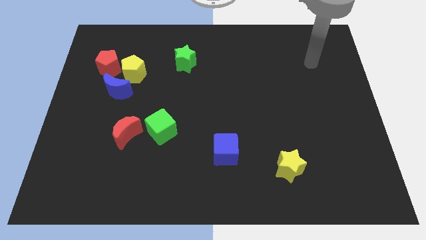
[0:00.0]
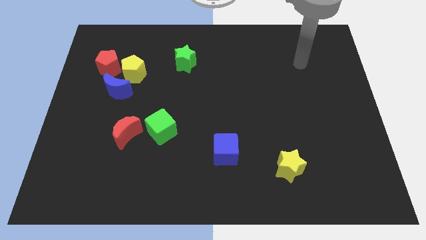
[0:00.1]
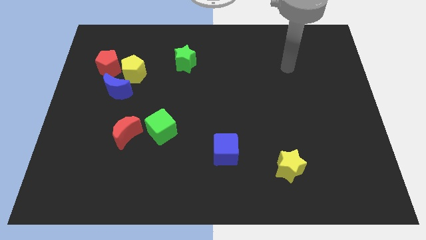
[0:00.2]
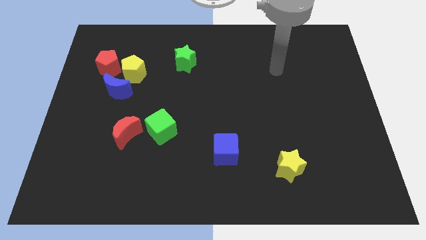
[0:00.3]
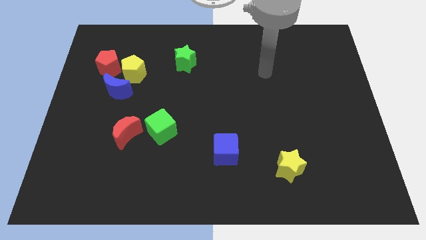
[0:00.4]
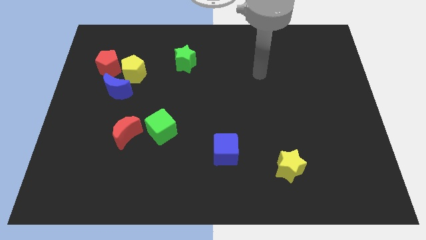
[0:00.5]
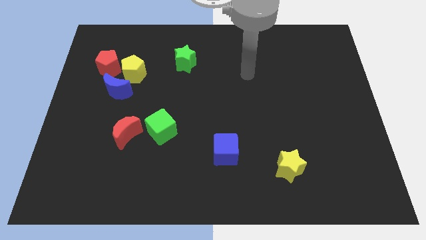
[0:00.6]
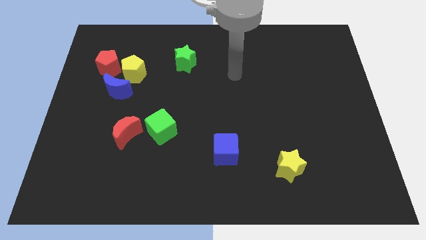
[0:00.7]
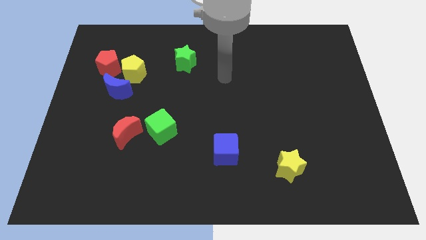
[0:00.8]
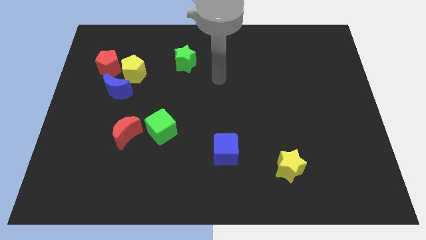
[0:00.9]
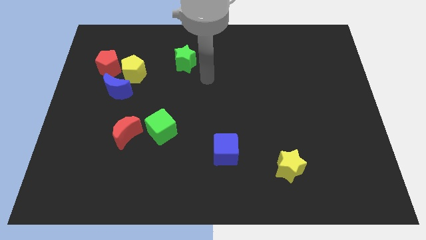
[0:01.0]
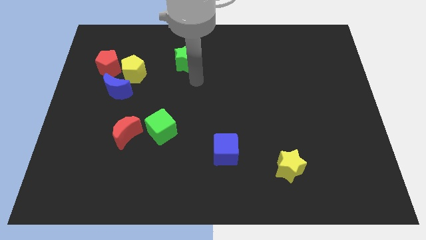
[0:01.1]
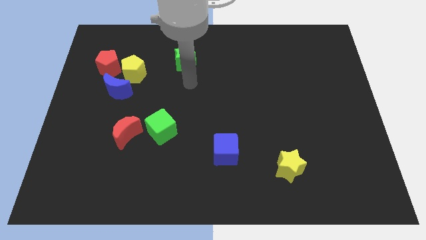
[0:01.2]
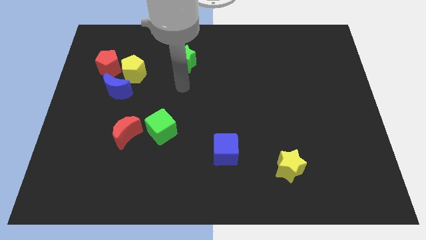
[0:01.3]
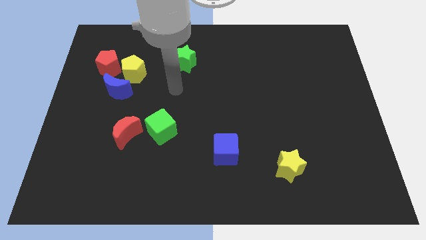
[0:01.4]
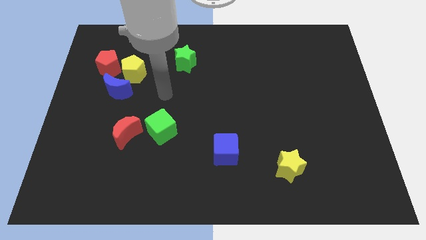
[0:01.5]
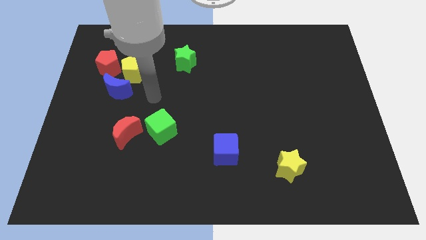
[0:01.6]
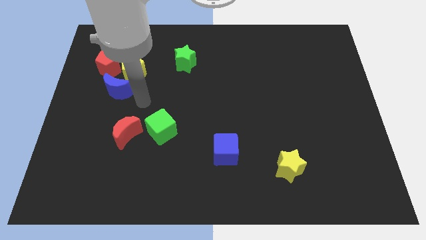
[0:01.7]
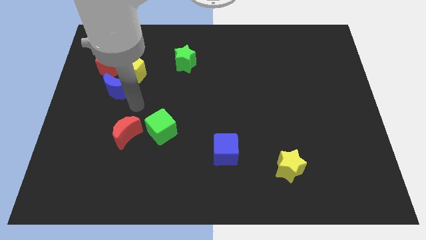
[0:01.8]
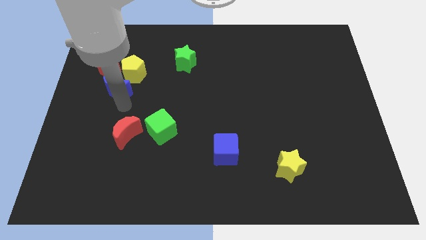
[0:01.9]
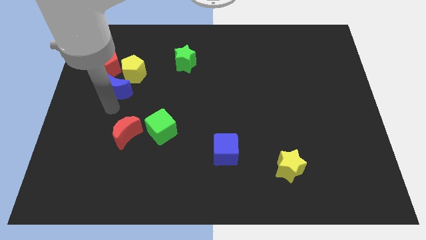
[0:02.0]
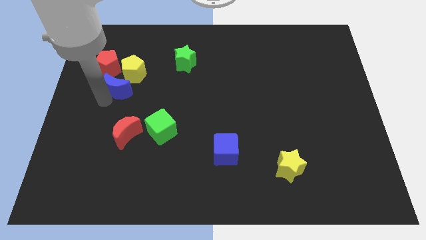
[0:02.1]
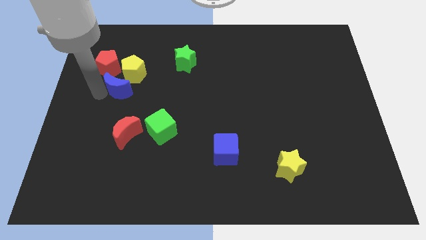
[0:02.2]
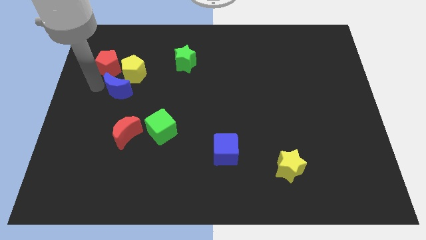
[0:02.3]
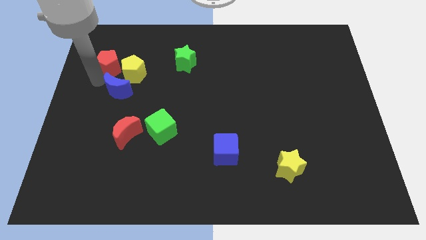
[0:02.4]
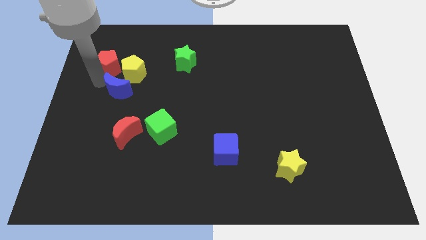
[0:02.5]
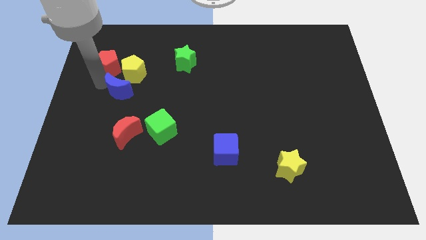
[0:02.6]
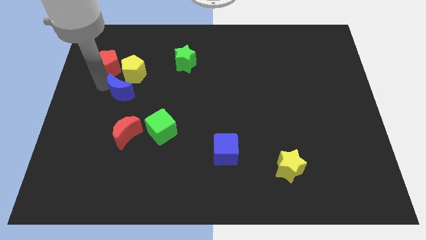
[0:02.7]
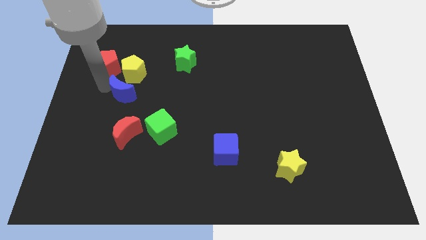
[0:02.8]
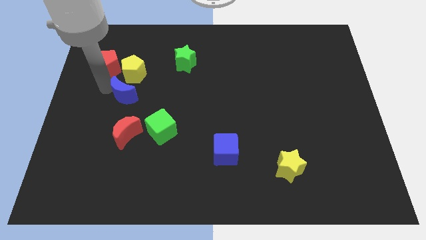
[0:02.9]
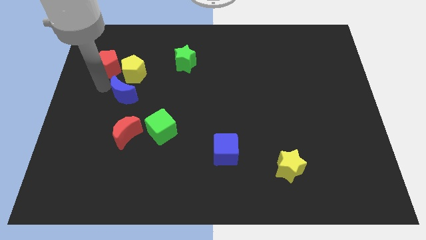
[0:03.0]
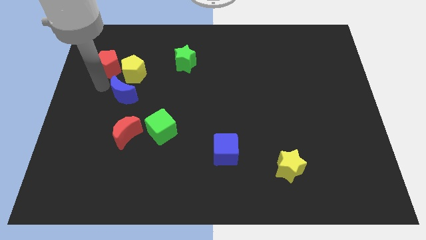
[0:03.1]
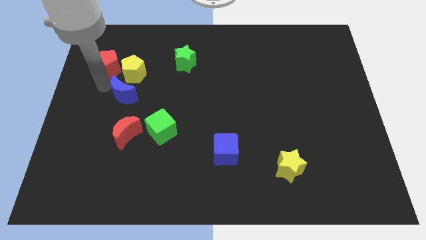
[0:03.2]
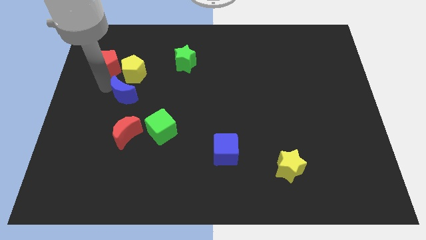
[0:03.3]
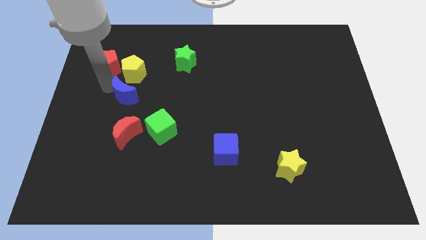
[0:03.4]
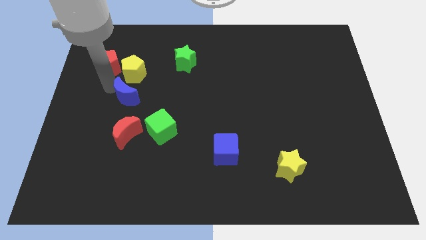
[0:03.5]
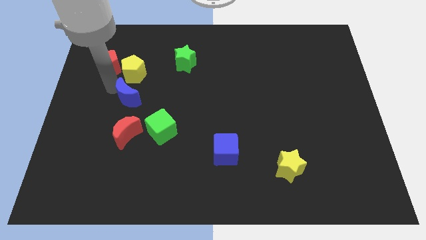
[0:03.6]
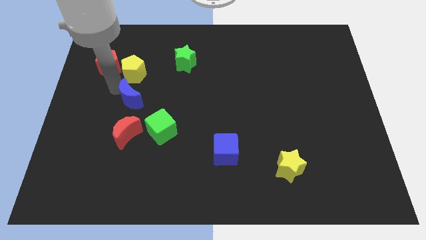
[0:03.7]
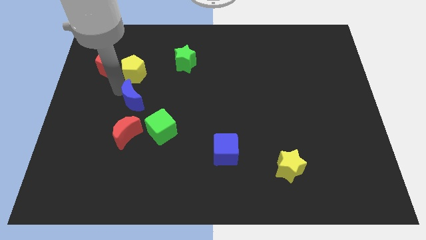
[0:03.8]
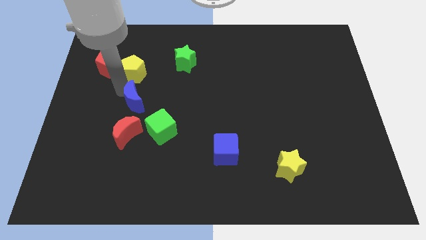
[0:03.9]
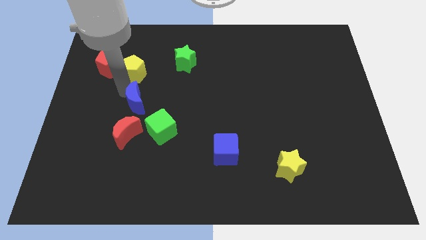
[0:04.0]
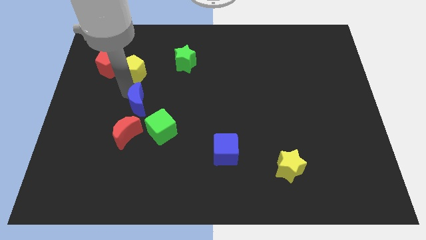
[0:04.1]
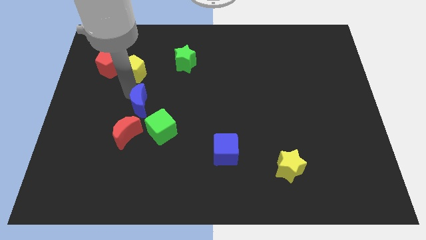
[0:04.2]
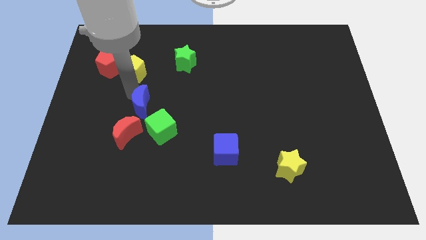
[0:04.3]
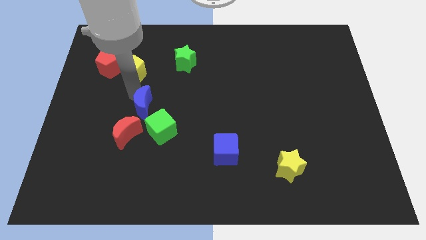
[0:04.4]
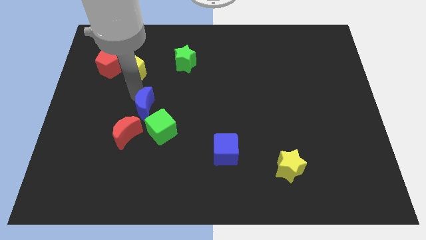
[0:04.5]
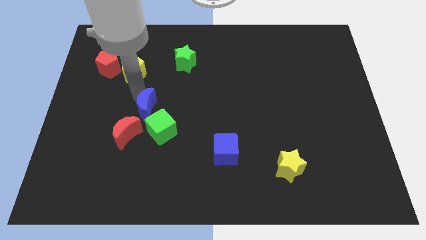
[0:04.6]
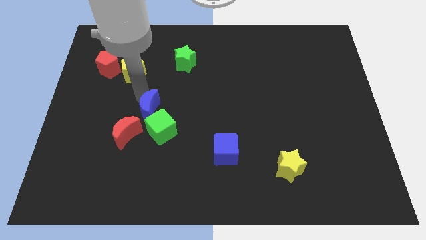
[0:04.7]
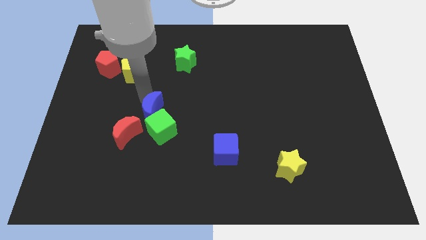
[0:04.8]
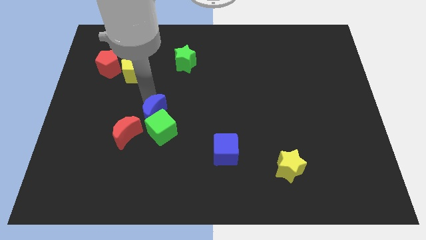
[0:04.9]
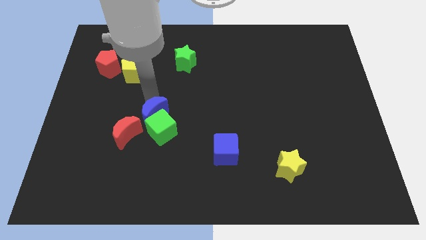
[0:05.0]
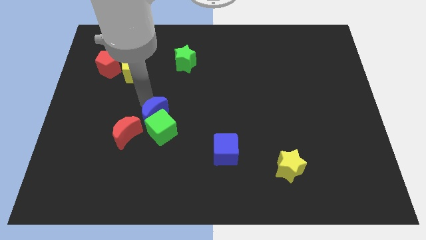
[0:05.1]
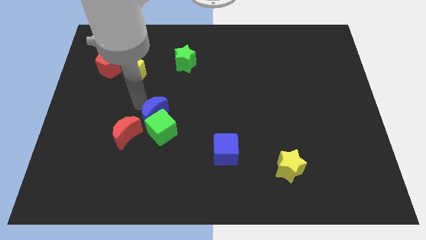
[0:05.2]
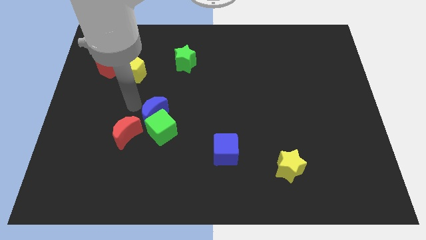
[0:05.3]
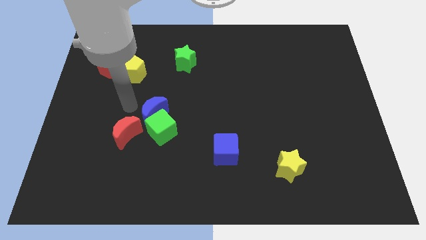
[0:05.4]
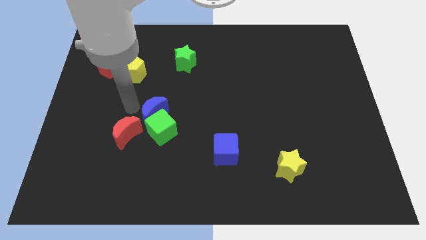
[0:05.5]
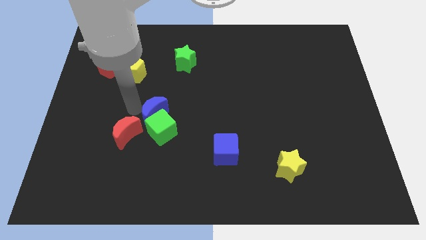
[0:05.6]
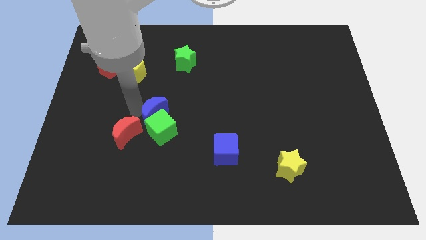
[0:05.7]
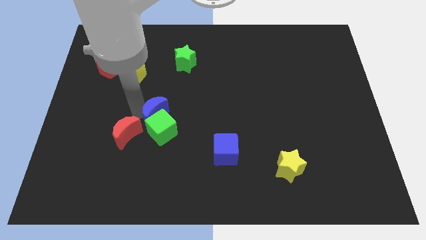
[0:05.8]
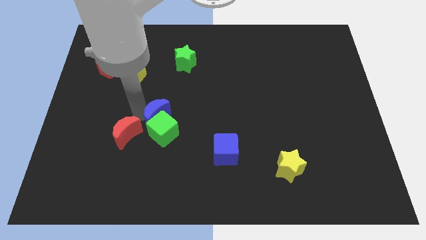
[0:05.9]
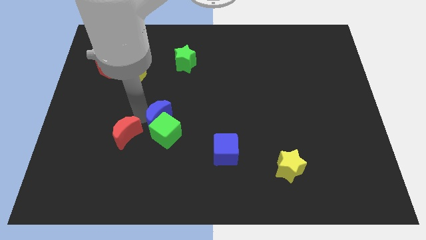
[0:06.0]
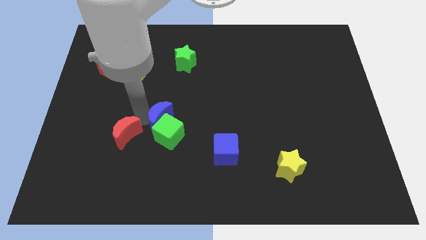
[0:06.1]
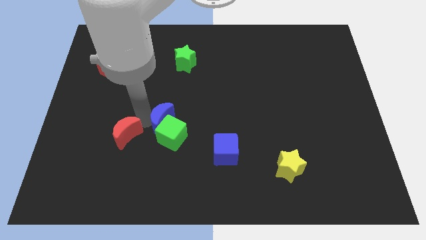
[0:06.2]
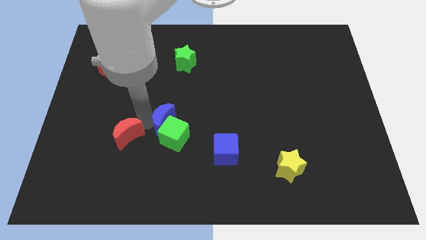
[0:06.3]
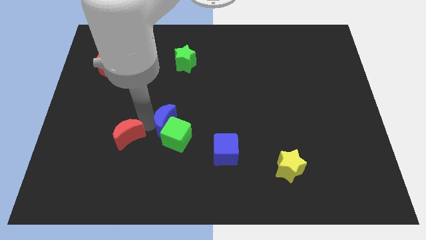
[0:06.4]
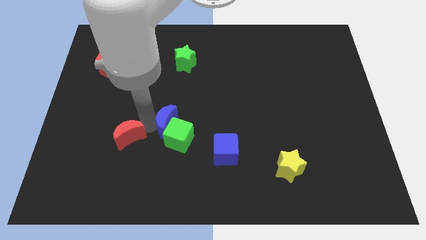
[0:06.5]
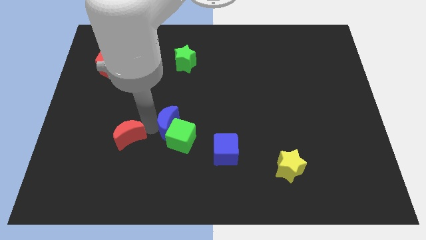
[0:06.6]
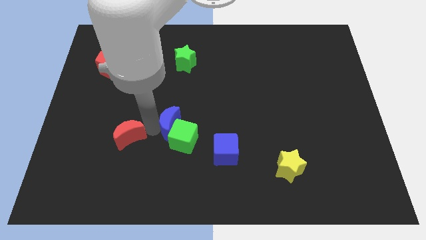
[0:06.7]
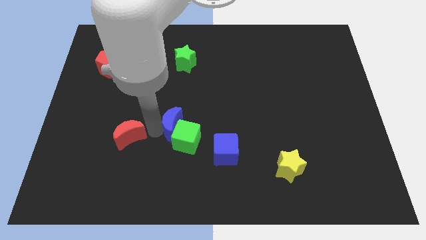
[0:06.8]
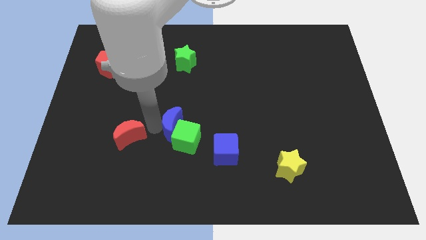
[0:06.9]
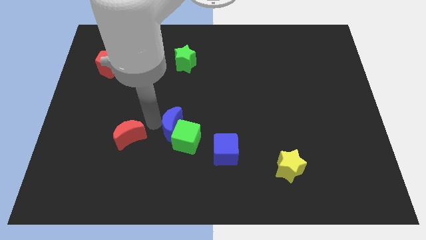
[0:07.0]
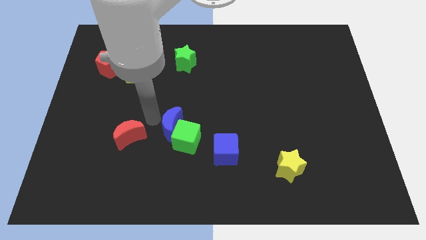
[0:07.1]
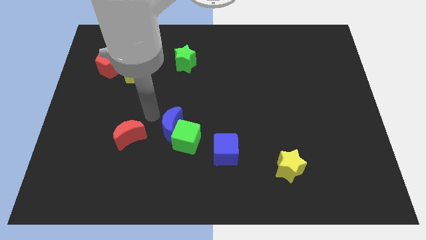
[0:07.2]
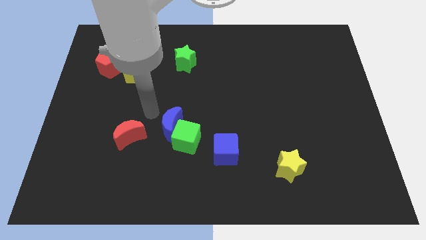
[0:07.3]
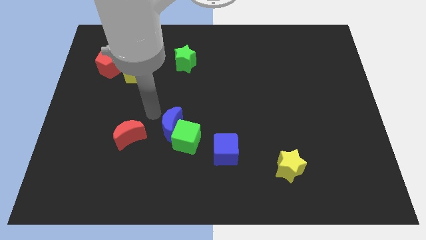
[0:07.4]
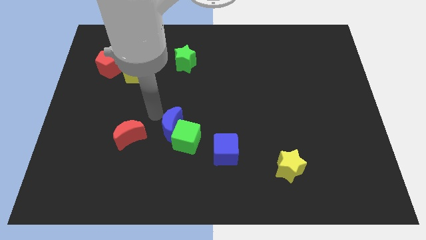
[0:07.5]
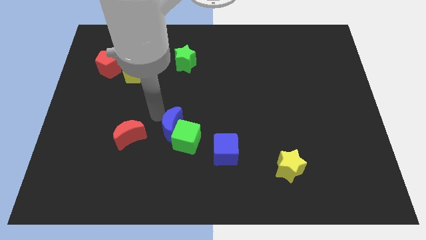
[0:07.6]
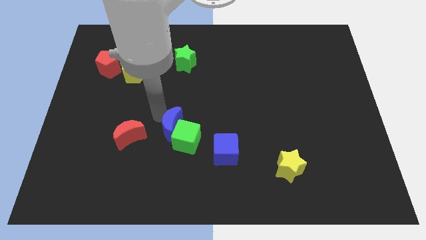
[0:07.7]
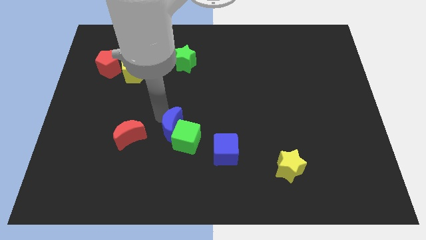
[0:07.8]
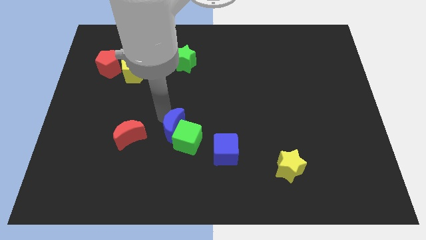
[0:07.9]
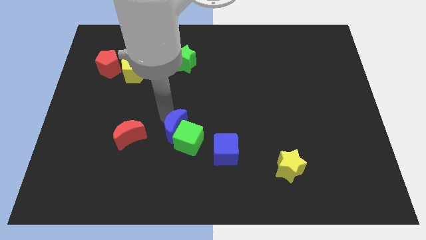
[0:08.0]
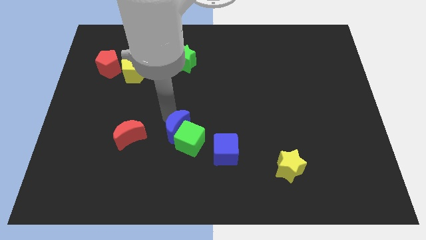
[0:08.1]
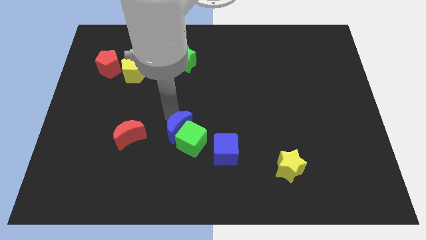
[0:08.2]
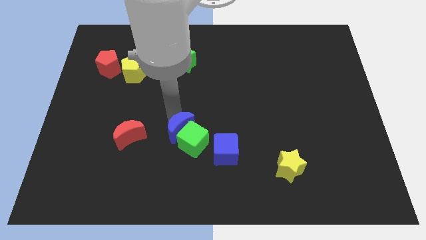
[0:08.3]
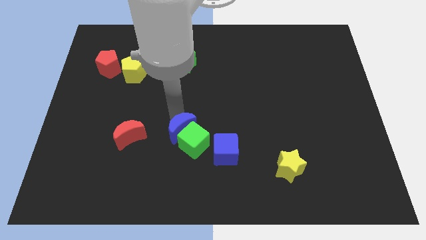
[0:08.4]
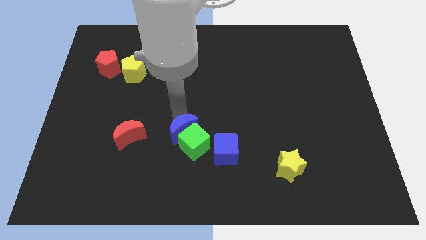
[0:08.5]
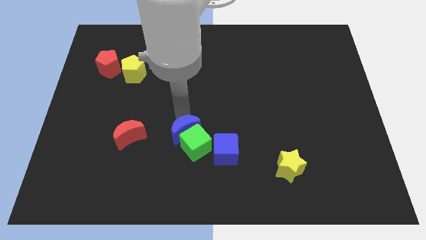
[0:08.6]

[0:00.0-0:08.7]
slide the blue moon downwards and to the right diagonally
